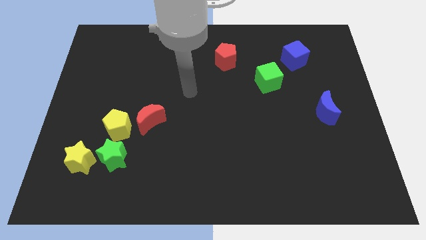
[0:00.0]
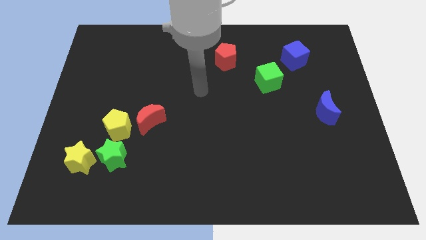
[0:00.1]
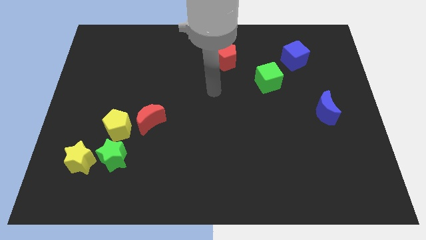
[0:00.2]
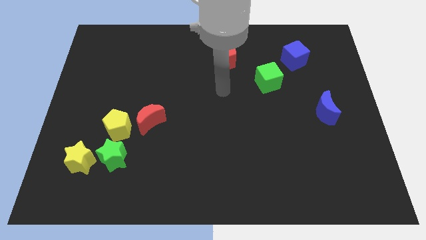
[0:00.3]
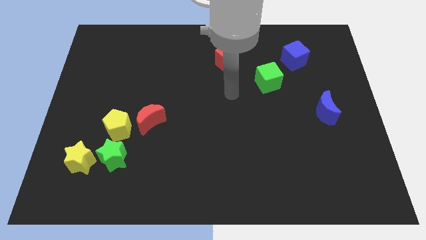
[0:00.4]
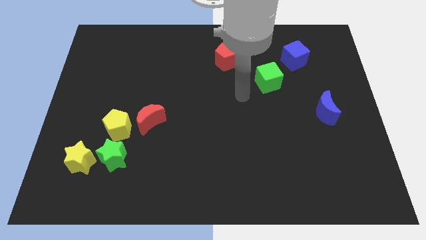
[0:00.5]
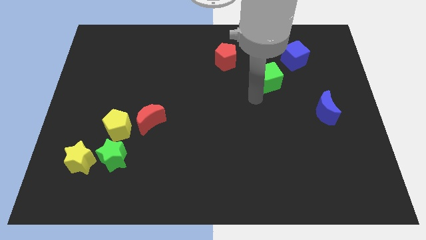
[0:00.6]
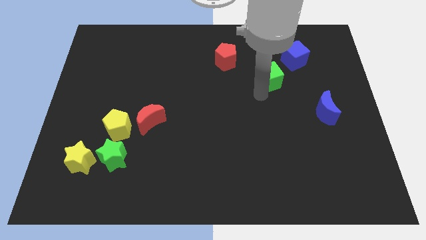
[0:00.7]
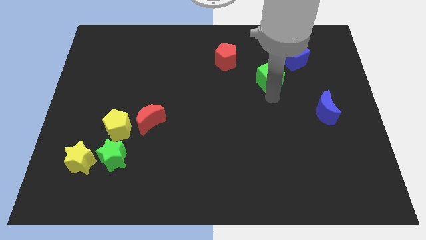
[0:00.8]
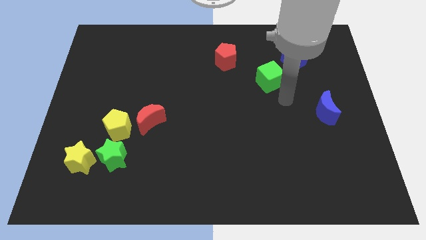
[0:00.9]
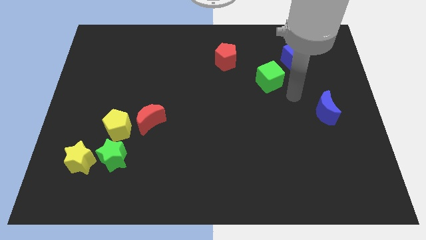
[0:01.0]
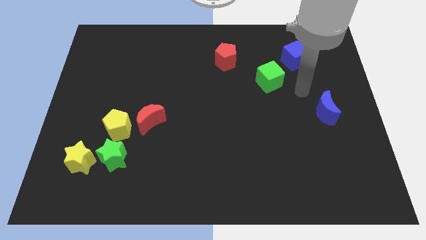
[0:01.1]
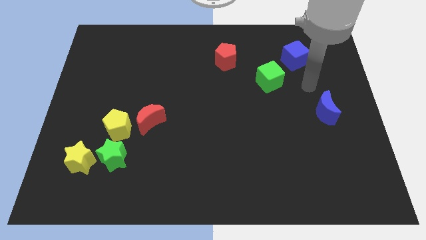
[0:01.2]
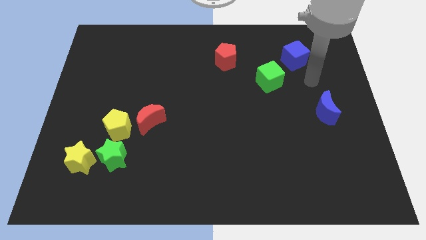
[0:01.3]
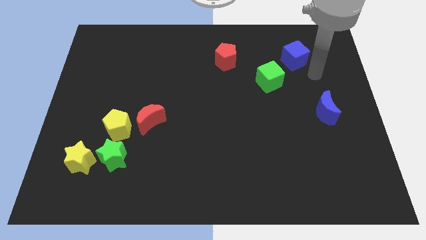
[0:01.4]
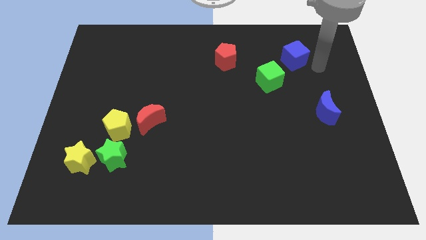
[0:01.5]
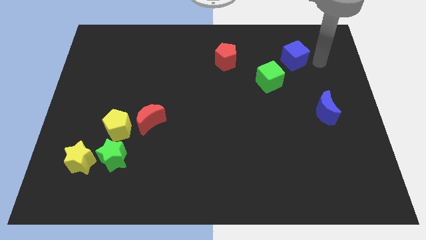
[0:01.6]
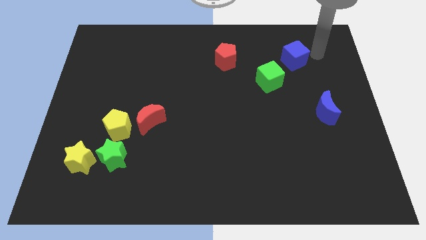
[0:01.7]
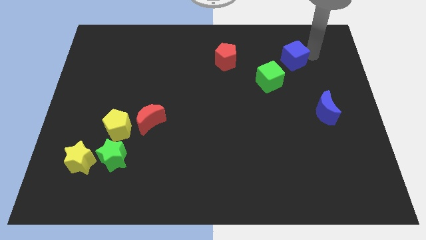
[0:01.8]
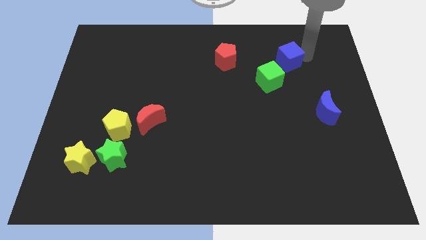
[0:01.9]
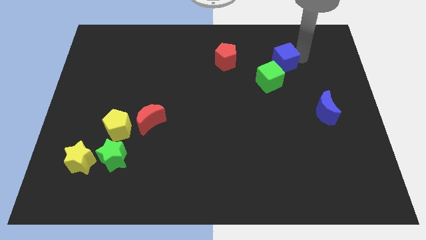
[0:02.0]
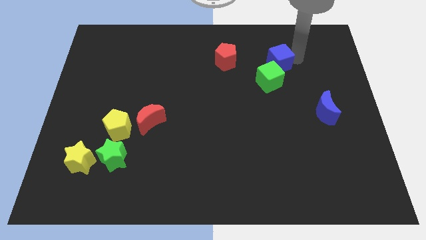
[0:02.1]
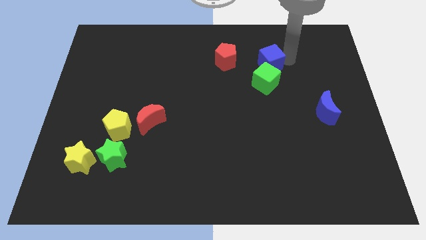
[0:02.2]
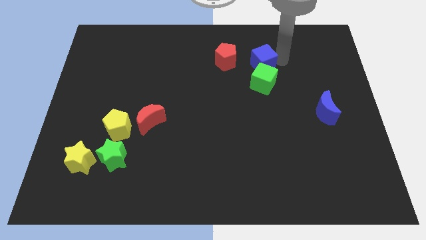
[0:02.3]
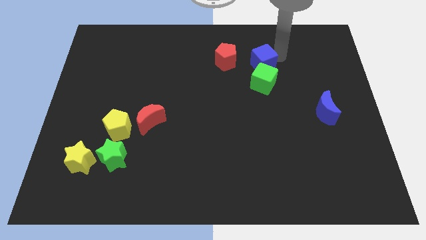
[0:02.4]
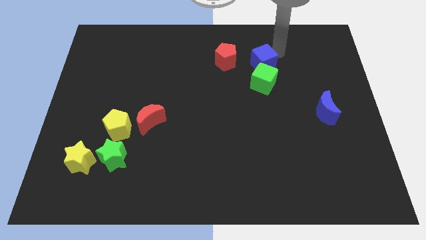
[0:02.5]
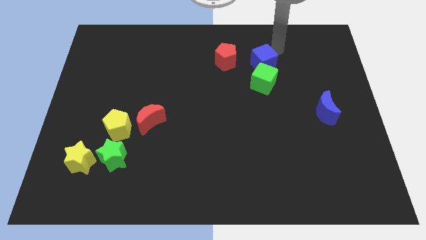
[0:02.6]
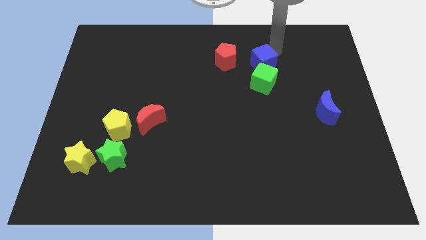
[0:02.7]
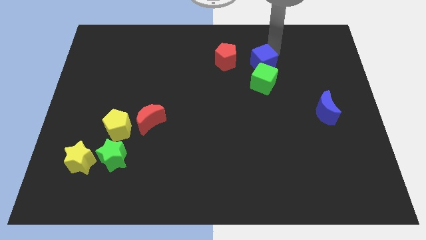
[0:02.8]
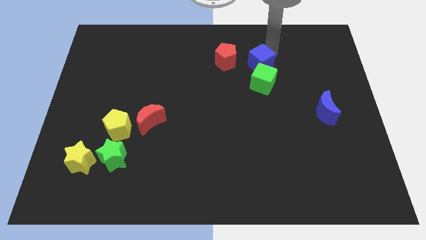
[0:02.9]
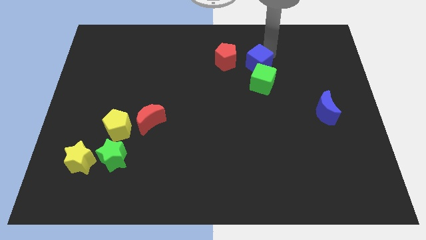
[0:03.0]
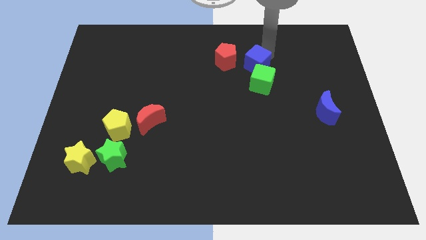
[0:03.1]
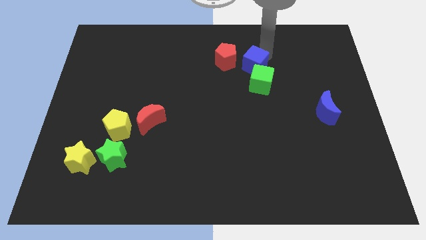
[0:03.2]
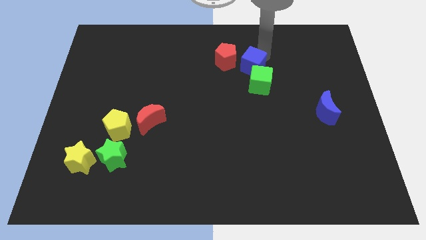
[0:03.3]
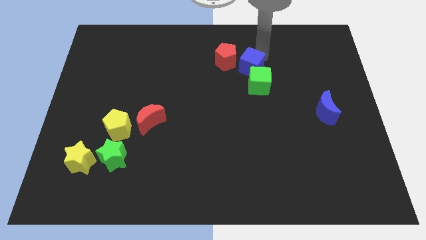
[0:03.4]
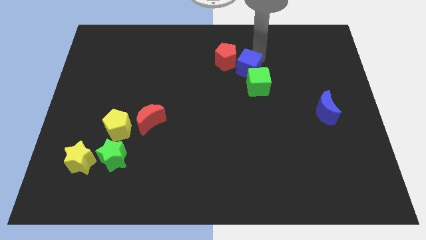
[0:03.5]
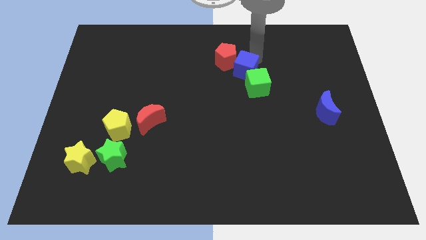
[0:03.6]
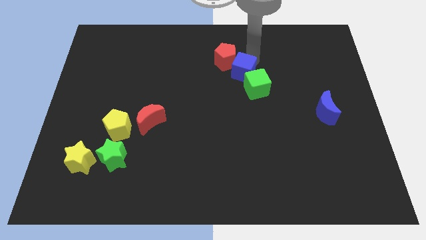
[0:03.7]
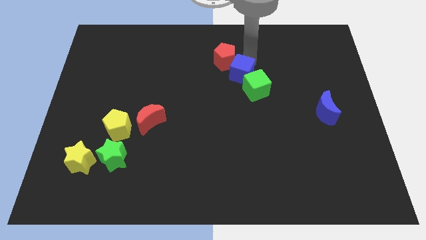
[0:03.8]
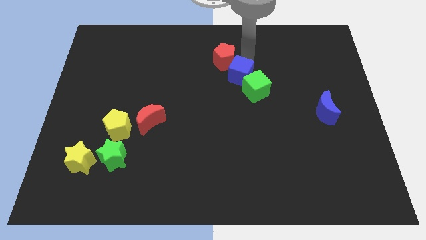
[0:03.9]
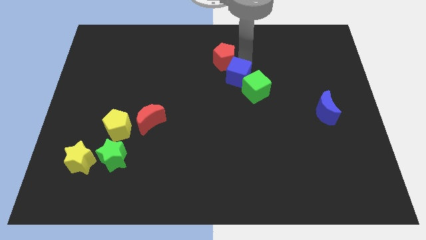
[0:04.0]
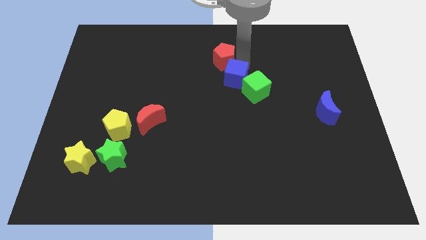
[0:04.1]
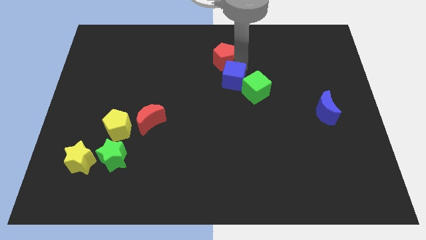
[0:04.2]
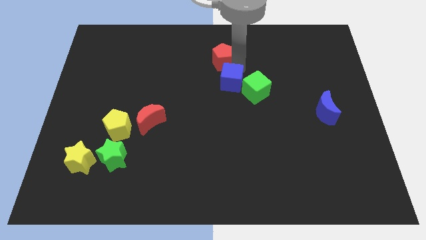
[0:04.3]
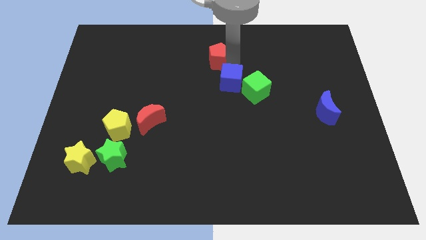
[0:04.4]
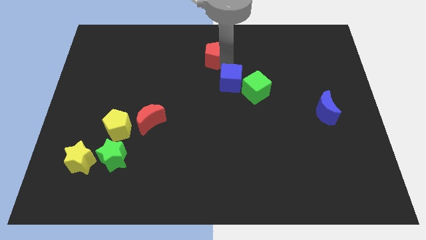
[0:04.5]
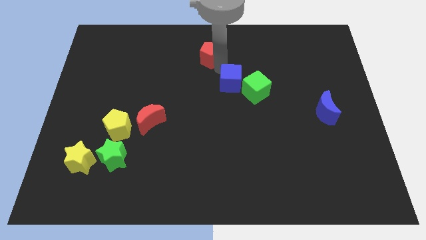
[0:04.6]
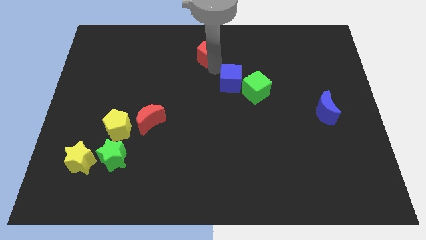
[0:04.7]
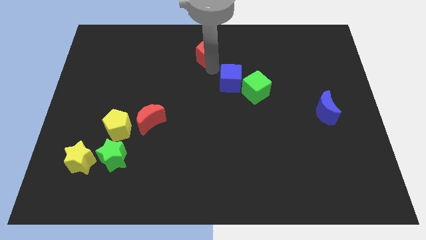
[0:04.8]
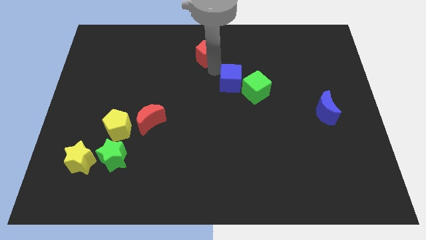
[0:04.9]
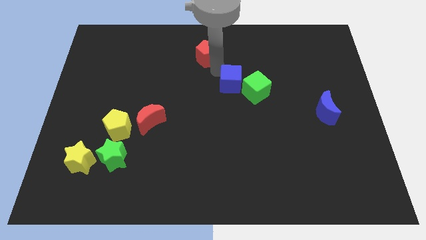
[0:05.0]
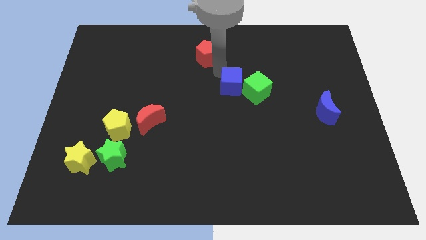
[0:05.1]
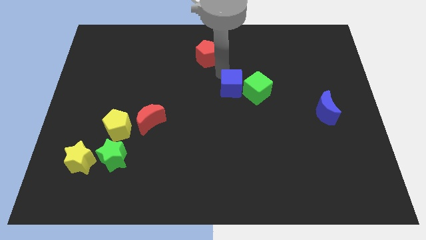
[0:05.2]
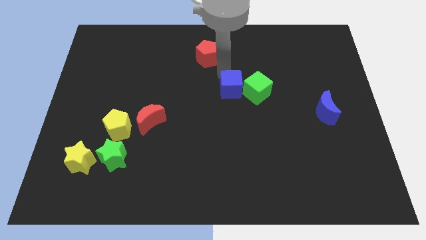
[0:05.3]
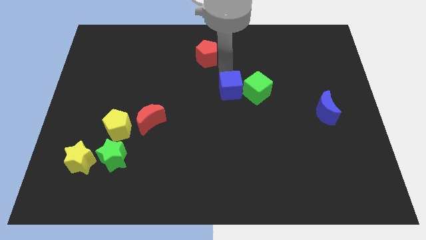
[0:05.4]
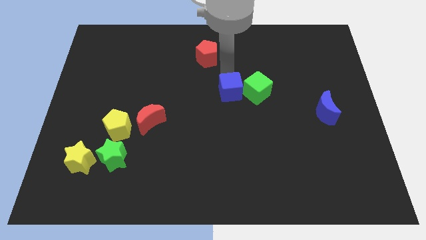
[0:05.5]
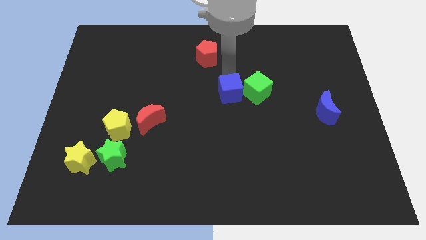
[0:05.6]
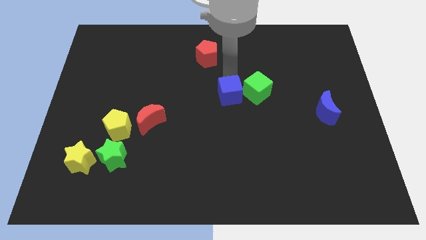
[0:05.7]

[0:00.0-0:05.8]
slide the blue cube down and to the left diagonally

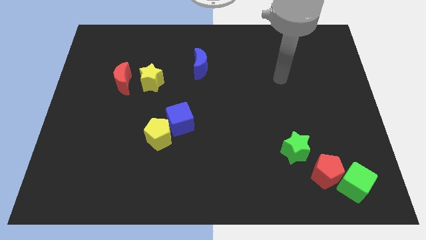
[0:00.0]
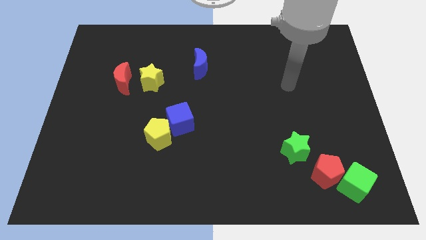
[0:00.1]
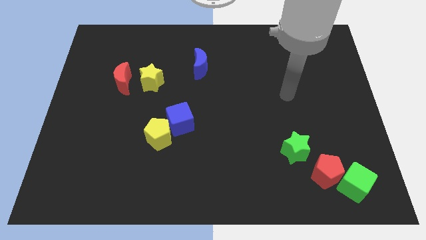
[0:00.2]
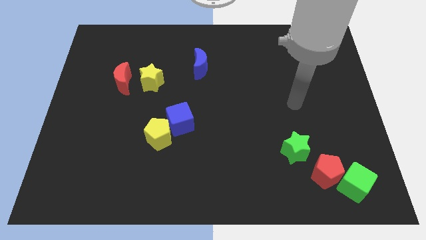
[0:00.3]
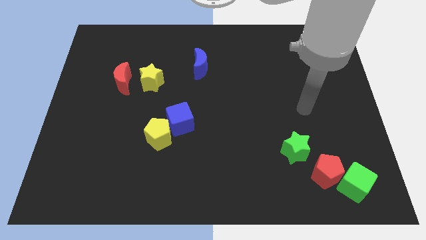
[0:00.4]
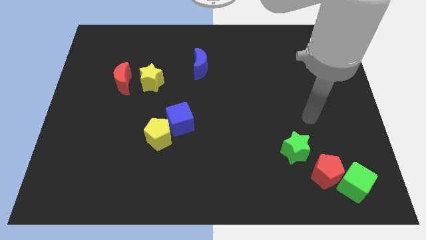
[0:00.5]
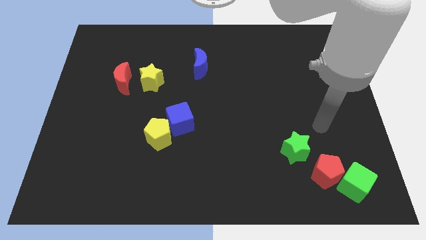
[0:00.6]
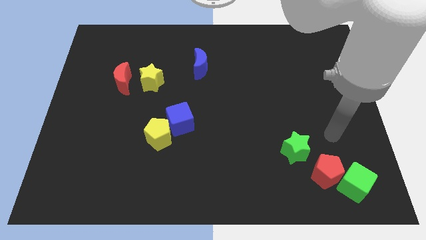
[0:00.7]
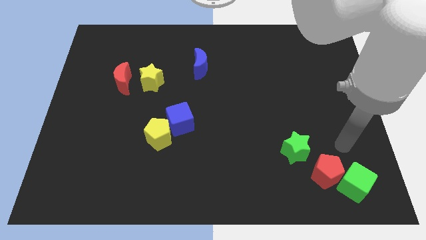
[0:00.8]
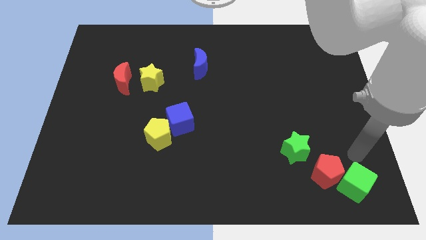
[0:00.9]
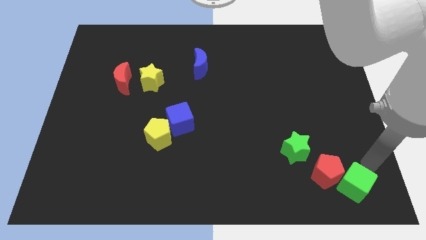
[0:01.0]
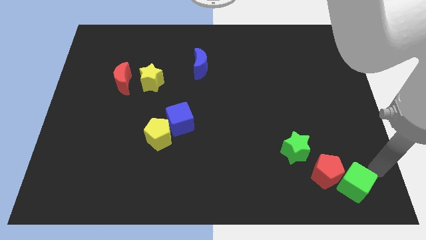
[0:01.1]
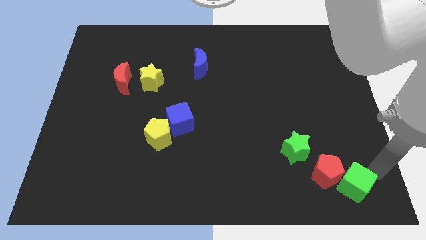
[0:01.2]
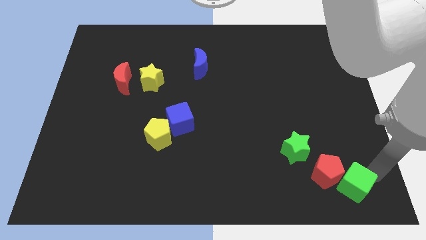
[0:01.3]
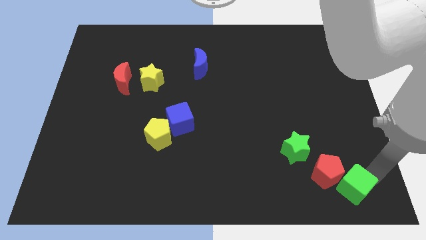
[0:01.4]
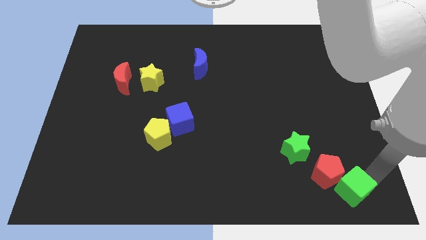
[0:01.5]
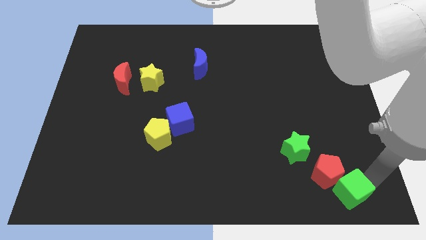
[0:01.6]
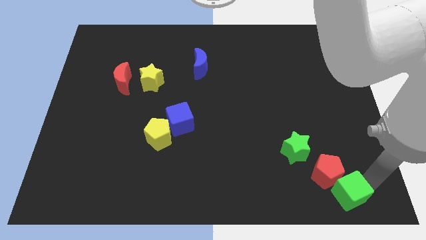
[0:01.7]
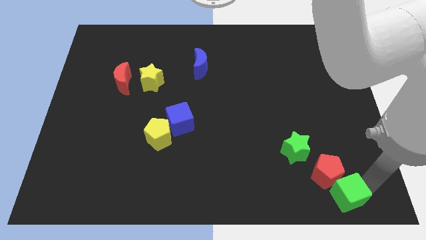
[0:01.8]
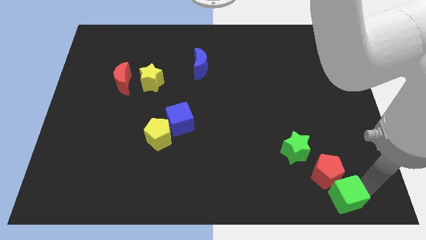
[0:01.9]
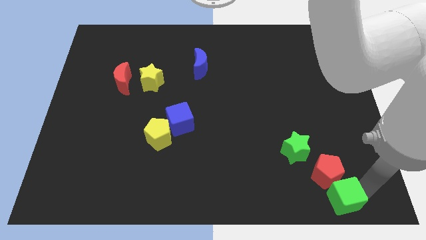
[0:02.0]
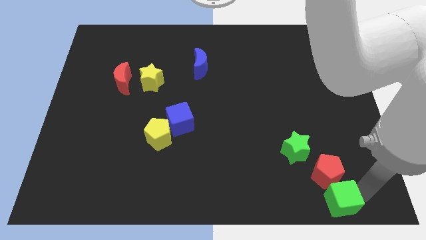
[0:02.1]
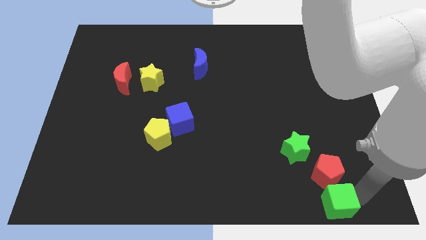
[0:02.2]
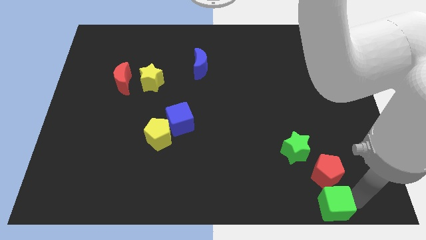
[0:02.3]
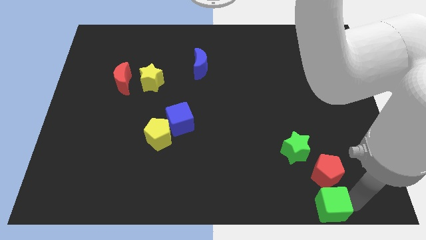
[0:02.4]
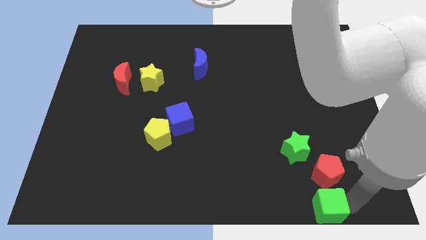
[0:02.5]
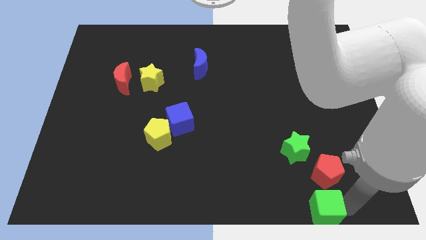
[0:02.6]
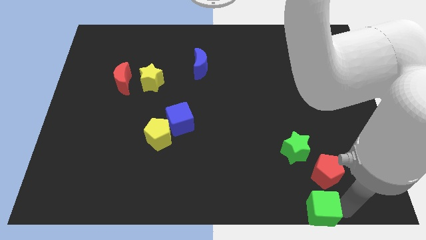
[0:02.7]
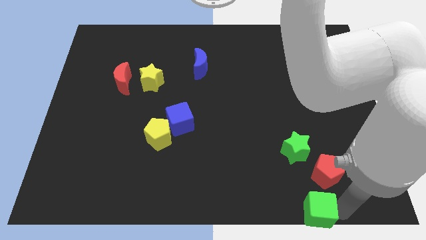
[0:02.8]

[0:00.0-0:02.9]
move the green cube left somewhat
